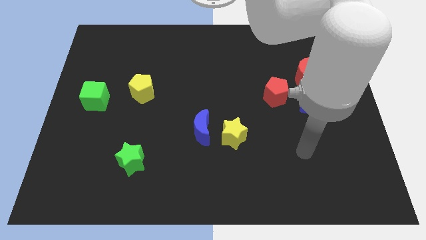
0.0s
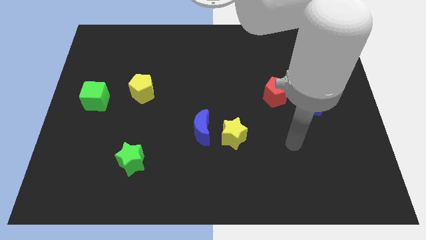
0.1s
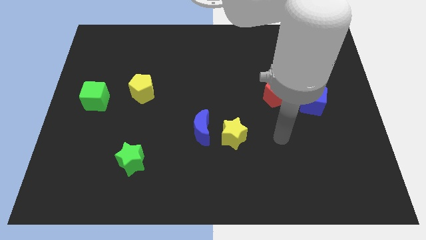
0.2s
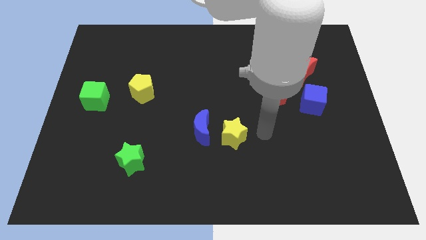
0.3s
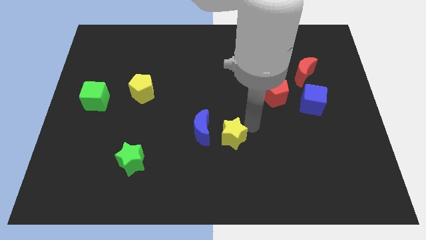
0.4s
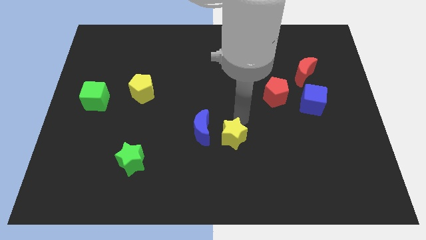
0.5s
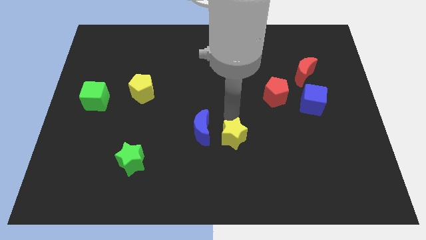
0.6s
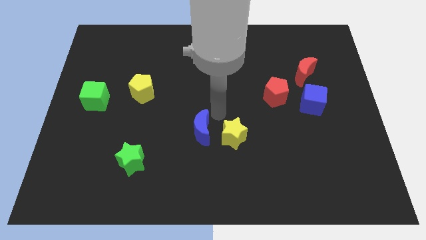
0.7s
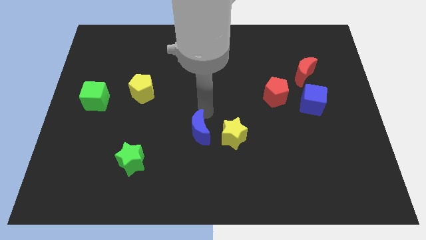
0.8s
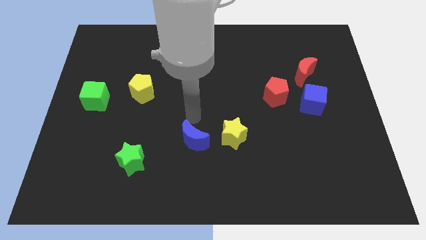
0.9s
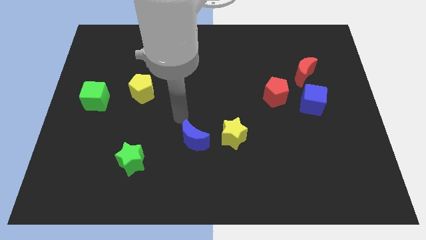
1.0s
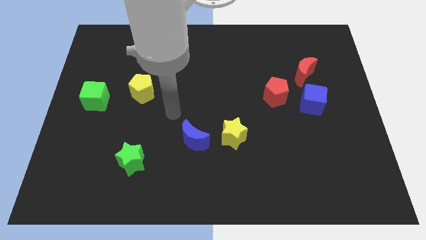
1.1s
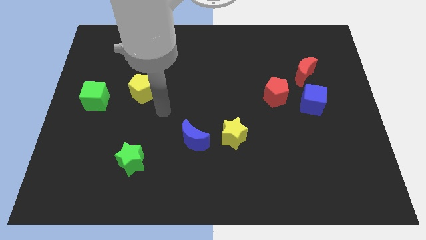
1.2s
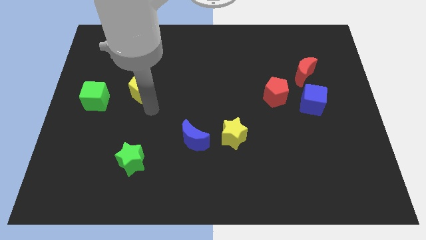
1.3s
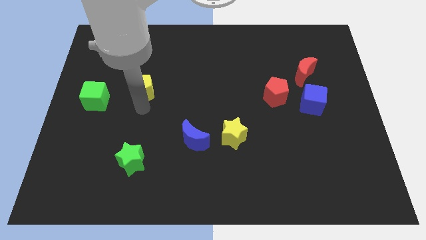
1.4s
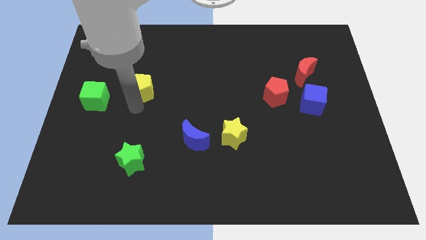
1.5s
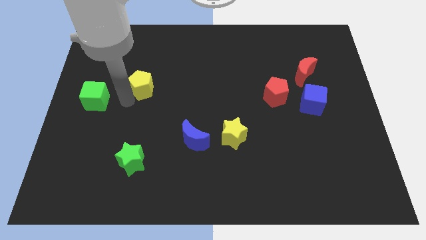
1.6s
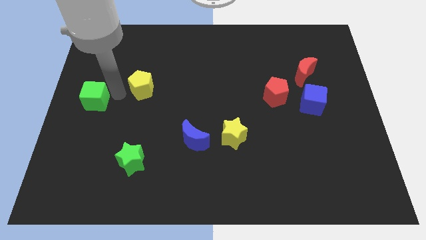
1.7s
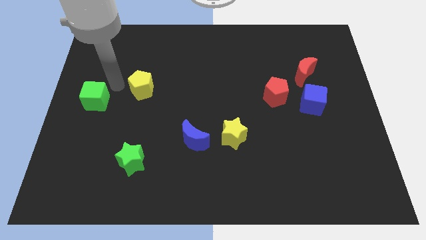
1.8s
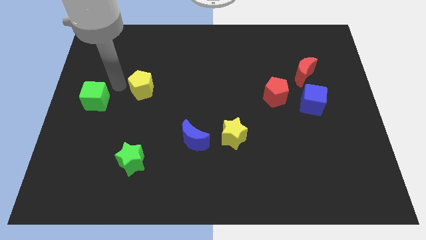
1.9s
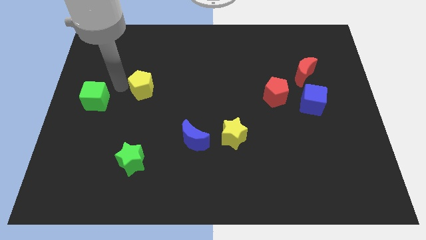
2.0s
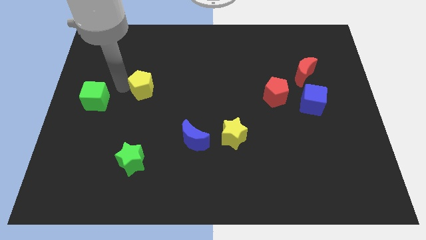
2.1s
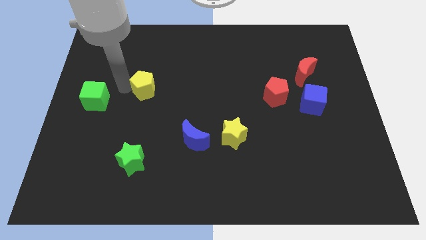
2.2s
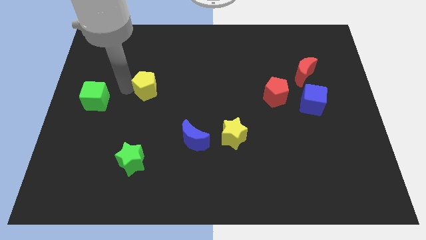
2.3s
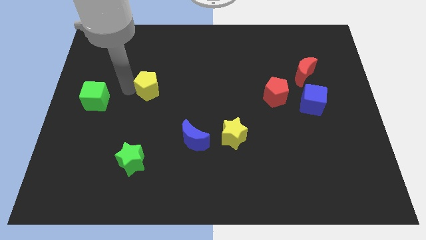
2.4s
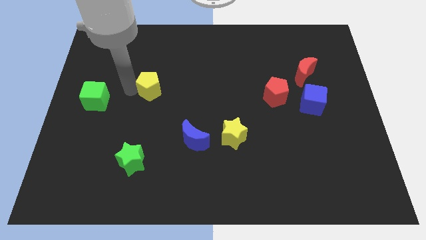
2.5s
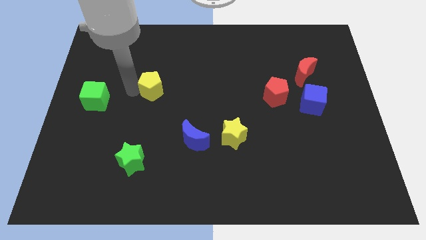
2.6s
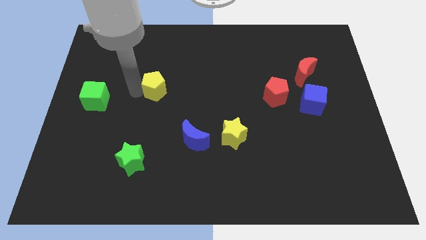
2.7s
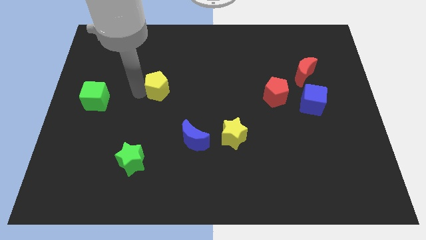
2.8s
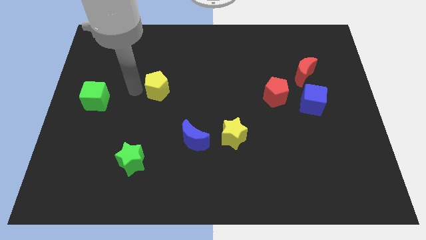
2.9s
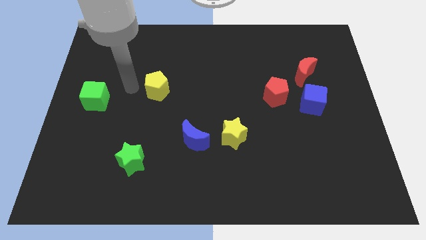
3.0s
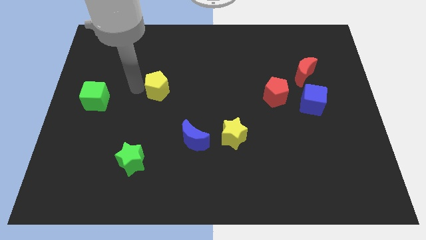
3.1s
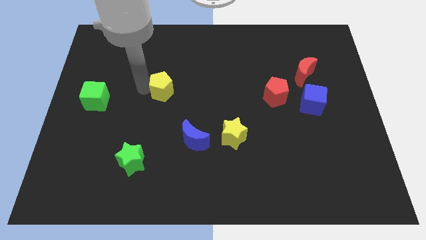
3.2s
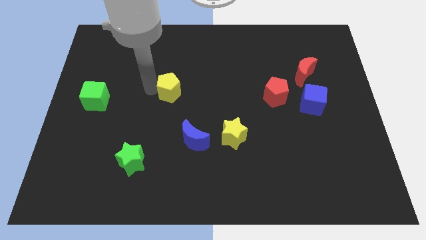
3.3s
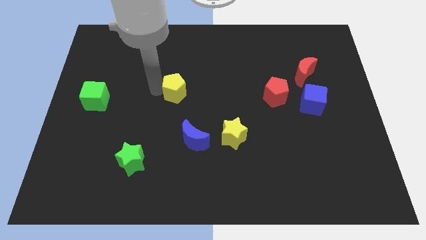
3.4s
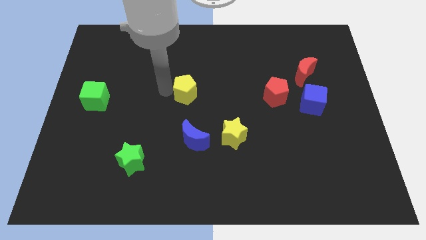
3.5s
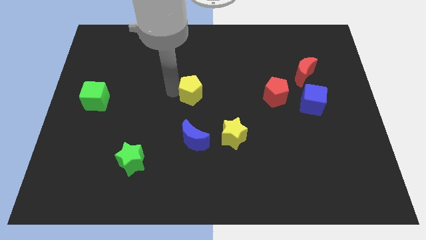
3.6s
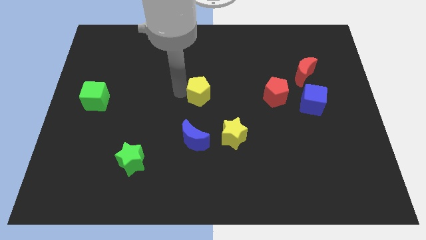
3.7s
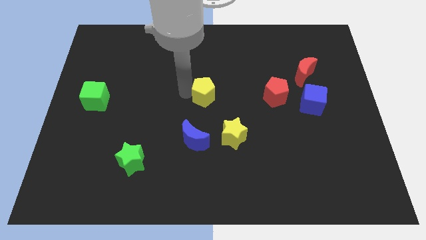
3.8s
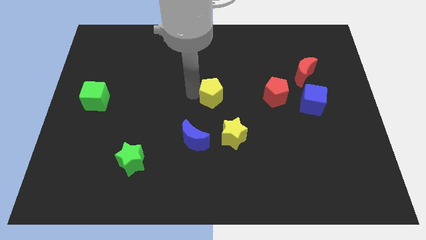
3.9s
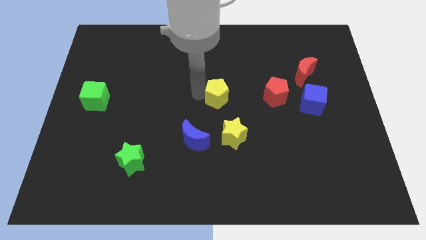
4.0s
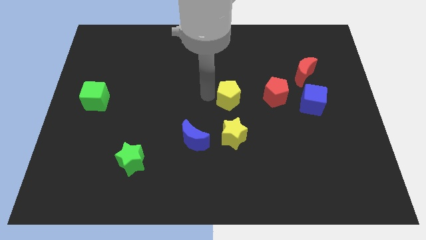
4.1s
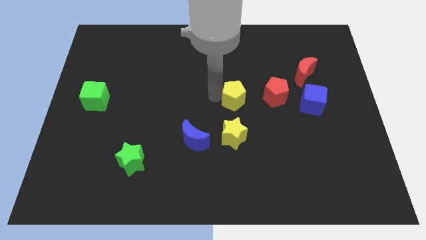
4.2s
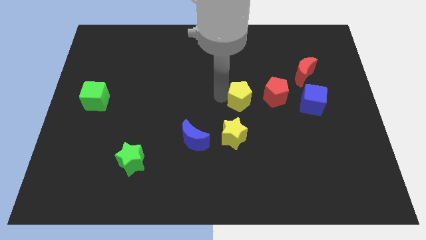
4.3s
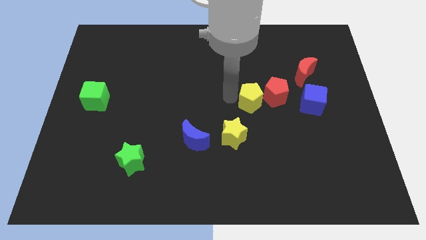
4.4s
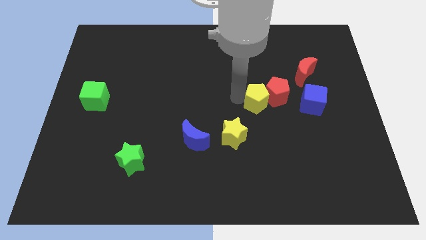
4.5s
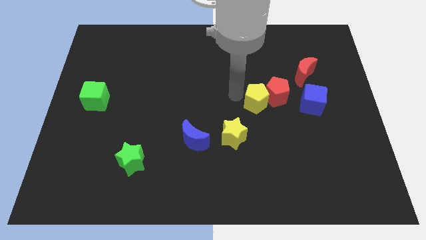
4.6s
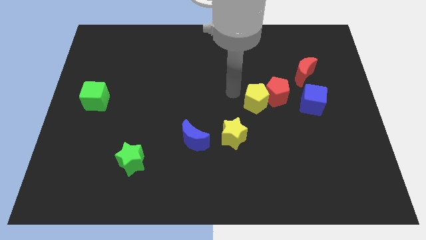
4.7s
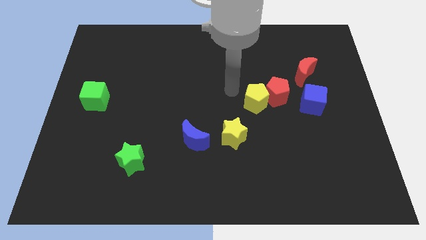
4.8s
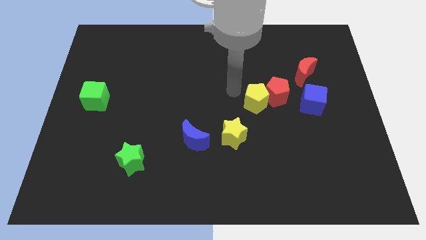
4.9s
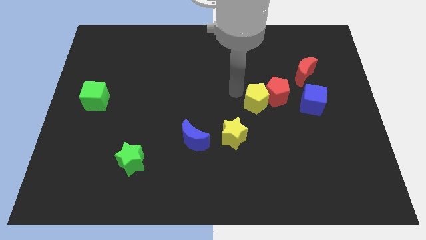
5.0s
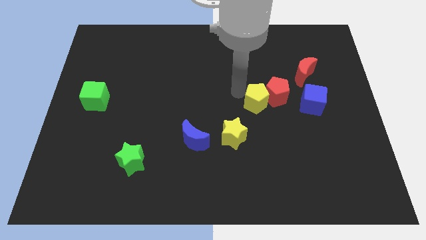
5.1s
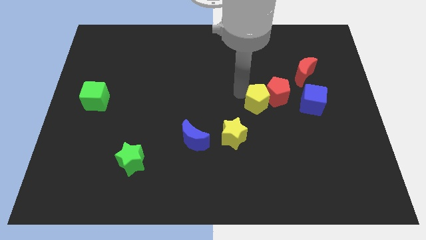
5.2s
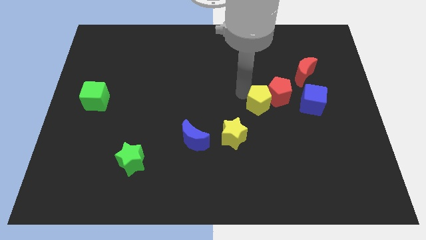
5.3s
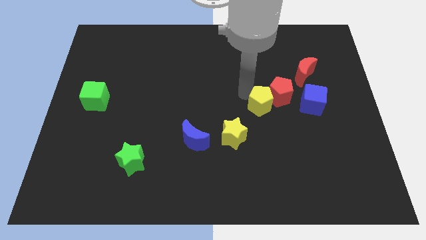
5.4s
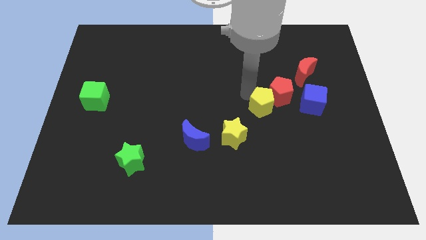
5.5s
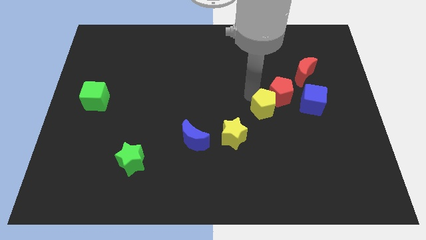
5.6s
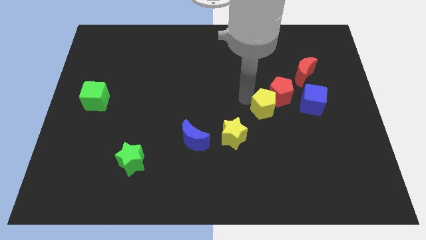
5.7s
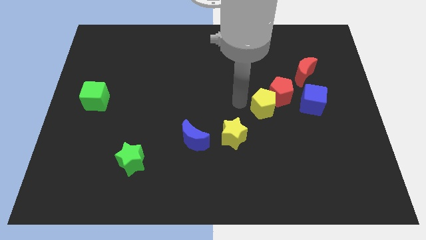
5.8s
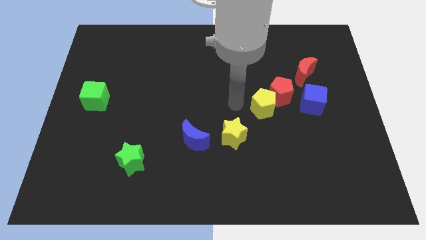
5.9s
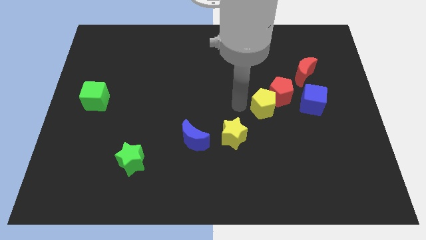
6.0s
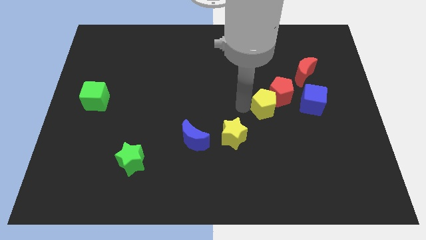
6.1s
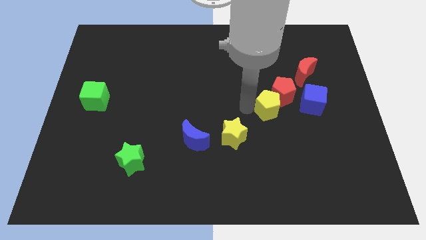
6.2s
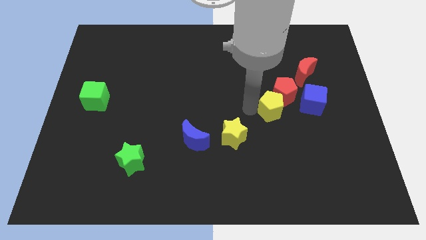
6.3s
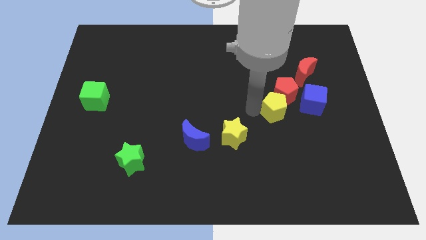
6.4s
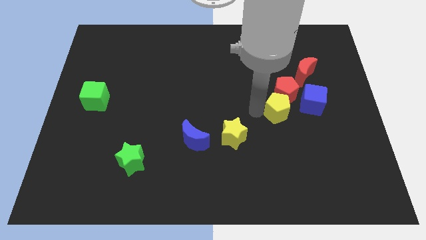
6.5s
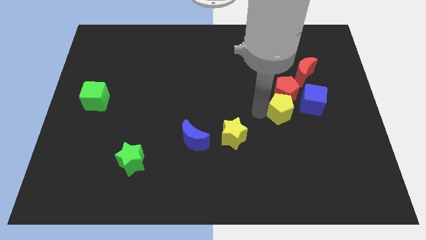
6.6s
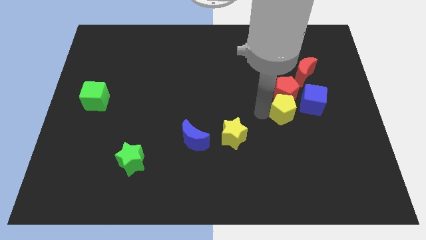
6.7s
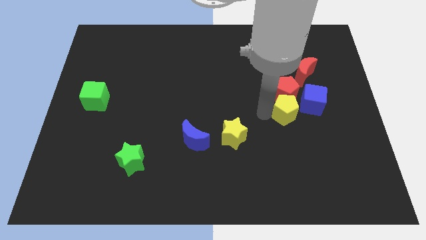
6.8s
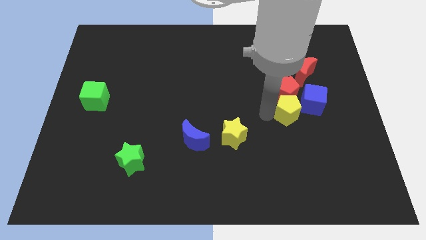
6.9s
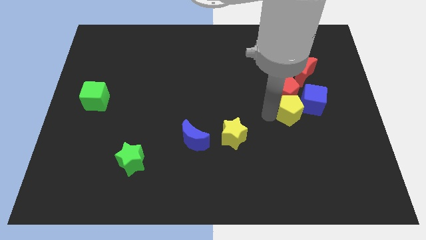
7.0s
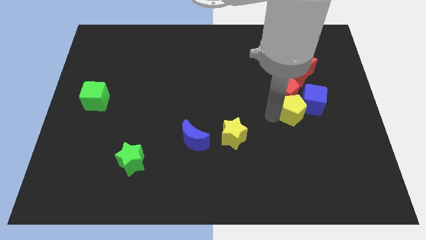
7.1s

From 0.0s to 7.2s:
slide the yellow pentagon to the blue cube
